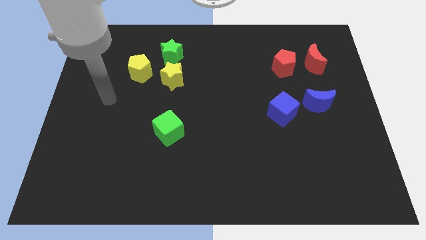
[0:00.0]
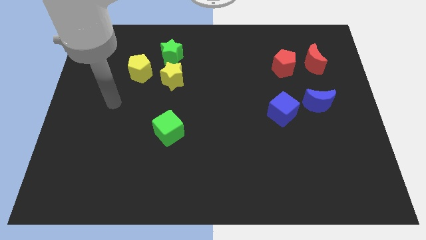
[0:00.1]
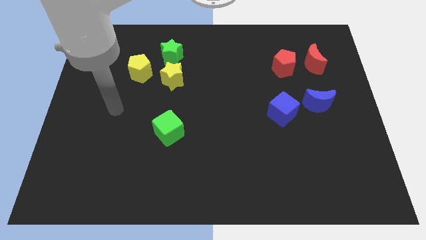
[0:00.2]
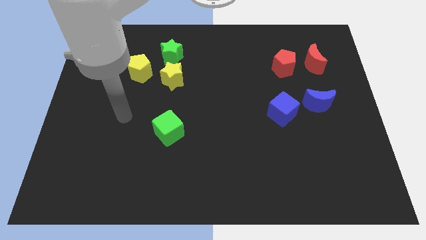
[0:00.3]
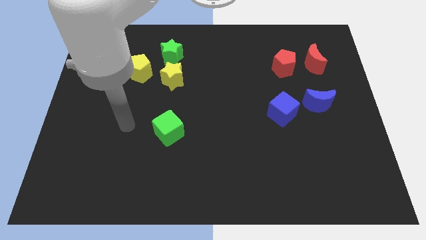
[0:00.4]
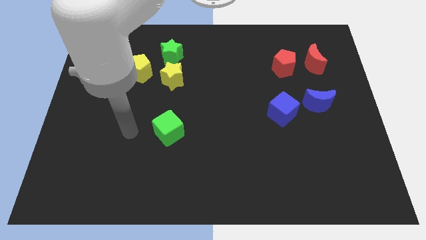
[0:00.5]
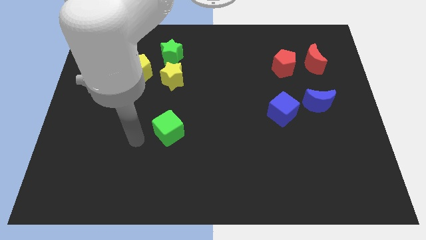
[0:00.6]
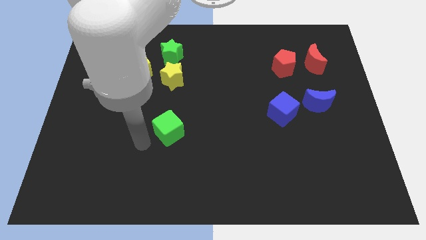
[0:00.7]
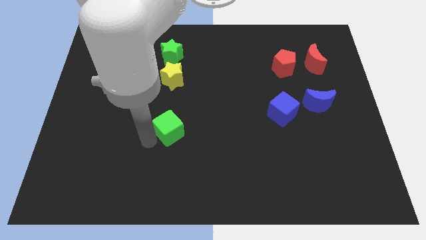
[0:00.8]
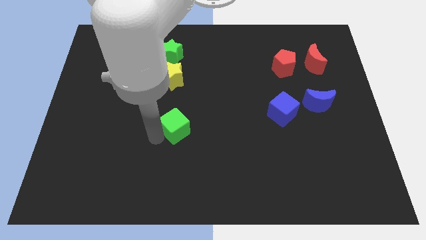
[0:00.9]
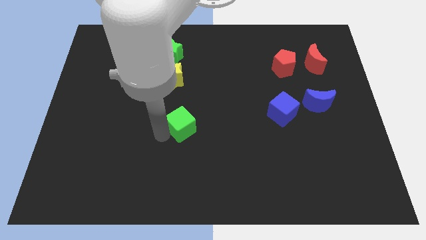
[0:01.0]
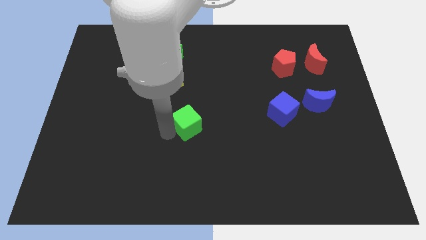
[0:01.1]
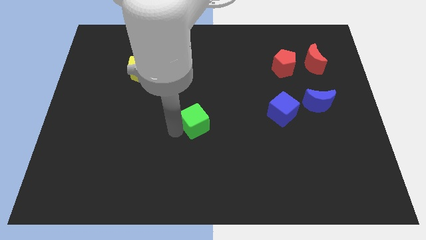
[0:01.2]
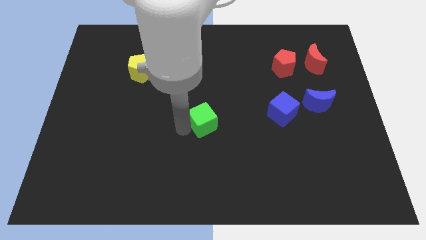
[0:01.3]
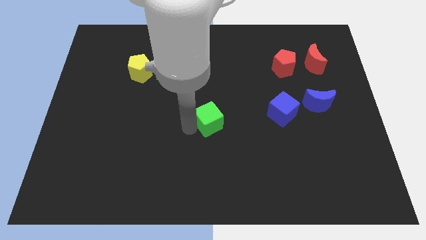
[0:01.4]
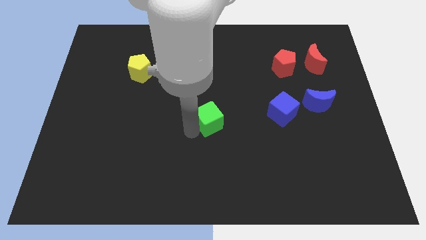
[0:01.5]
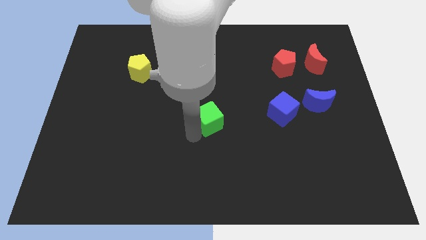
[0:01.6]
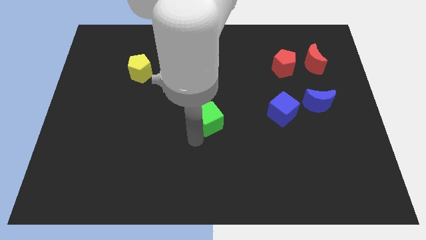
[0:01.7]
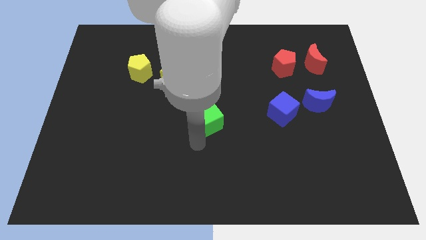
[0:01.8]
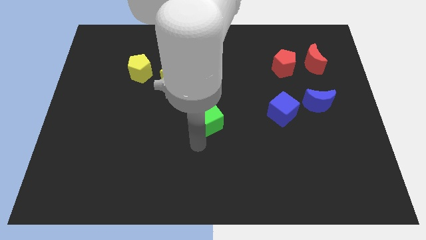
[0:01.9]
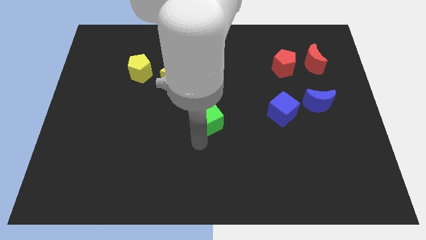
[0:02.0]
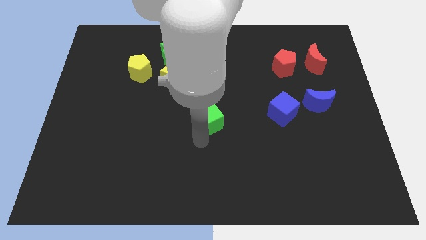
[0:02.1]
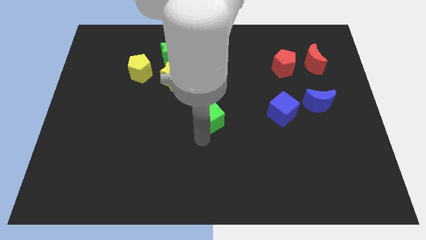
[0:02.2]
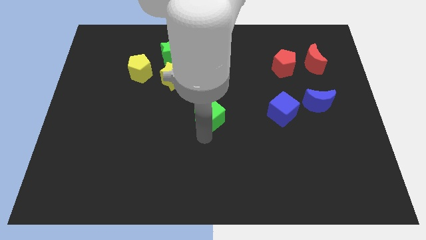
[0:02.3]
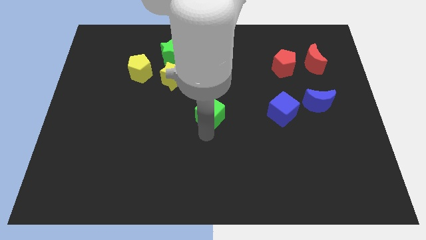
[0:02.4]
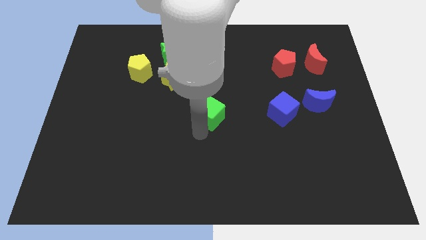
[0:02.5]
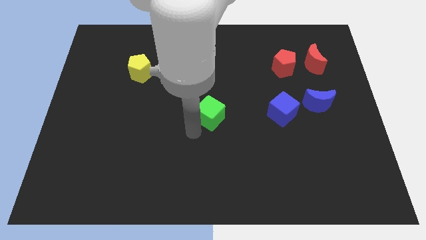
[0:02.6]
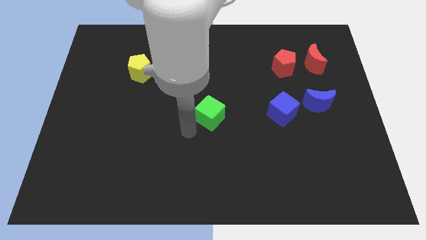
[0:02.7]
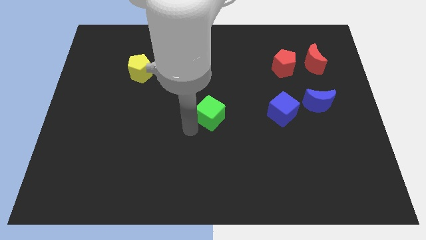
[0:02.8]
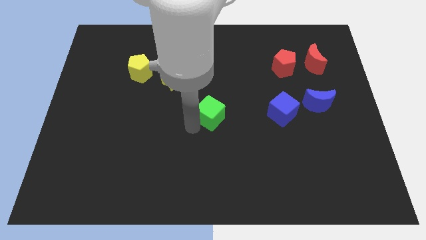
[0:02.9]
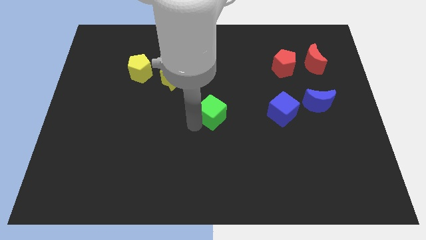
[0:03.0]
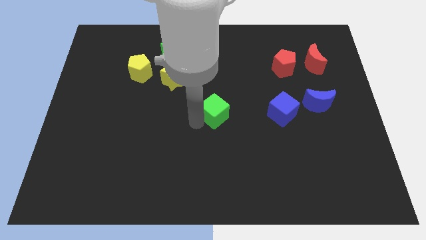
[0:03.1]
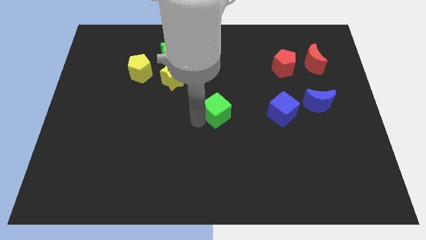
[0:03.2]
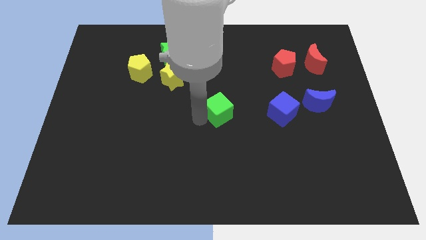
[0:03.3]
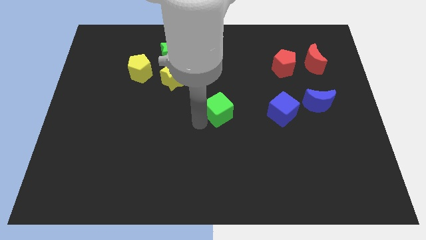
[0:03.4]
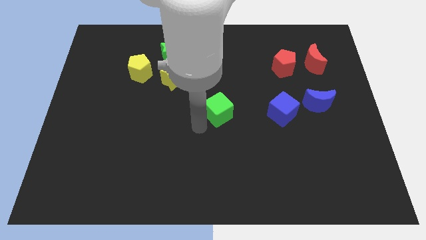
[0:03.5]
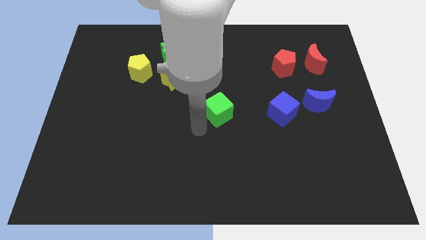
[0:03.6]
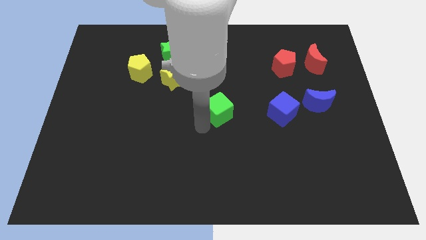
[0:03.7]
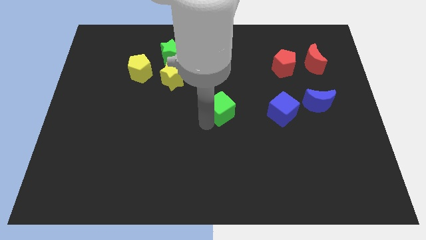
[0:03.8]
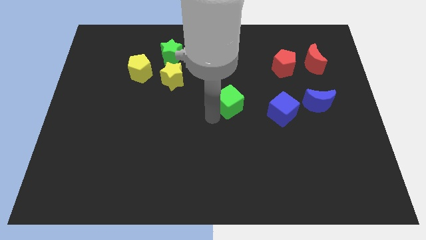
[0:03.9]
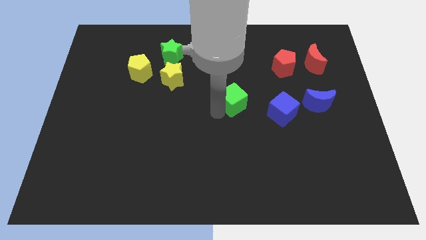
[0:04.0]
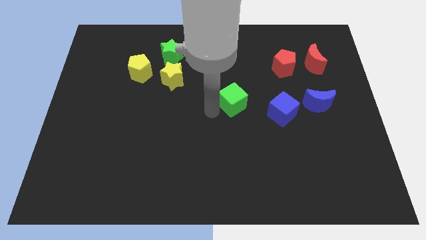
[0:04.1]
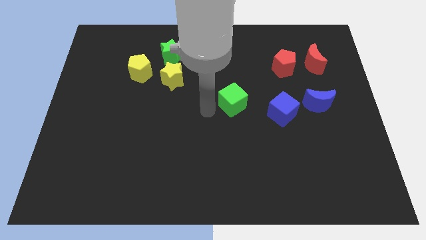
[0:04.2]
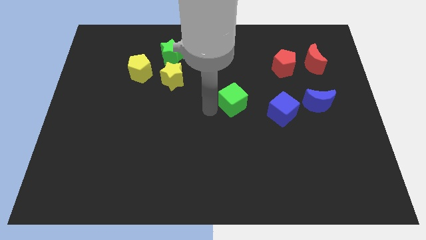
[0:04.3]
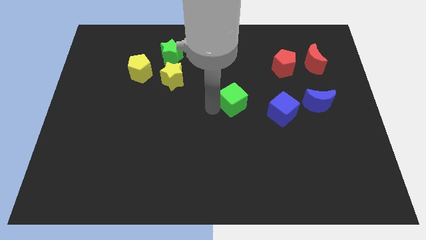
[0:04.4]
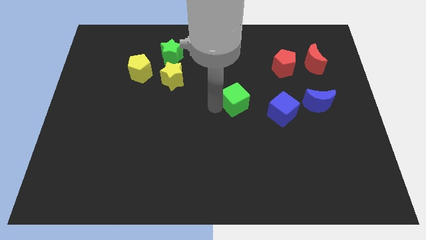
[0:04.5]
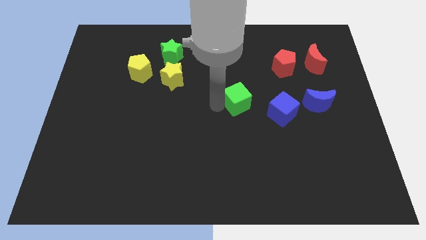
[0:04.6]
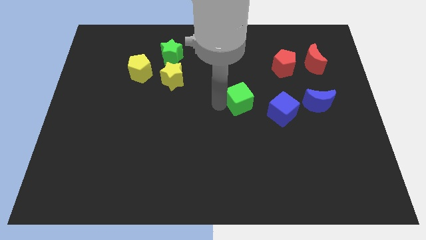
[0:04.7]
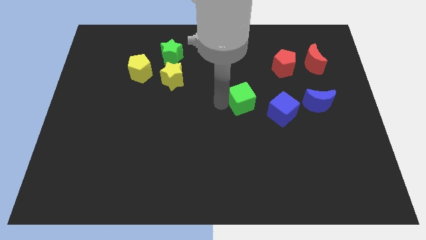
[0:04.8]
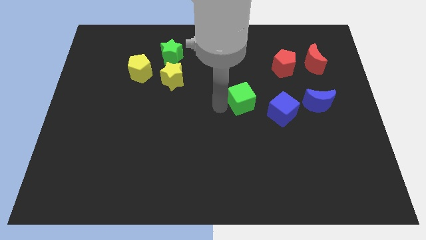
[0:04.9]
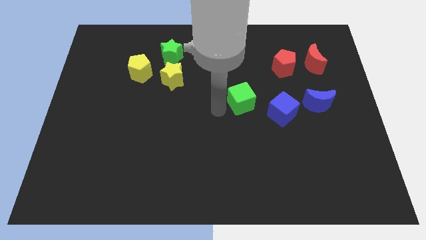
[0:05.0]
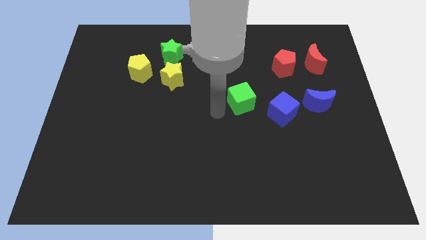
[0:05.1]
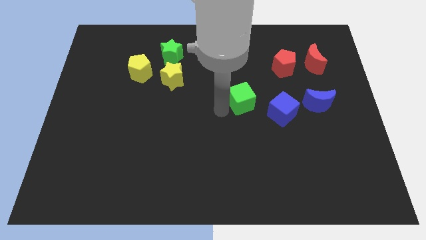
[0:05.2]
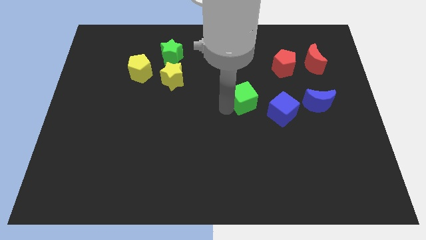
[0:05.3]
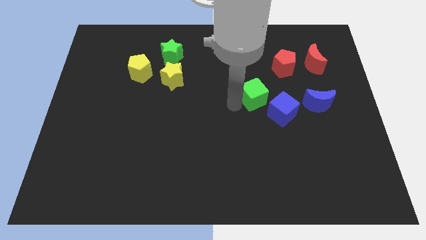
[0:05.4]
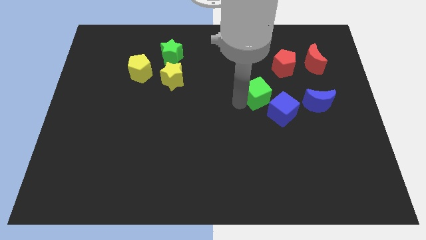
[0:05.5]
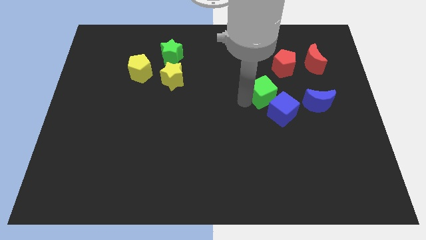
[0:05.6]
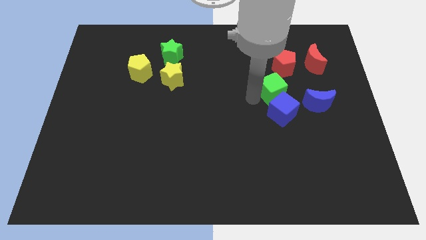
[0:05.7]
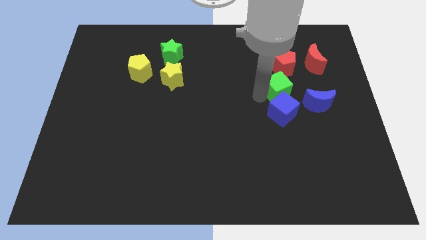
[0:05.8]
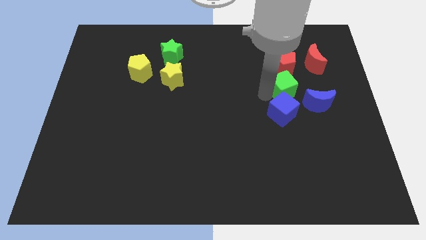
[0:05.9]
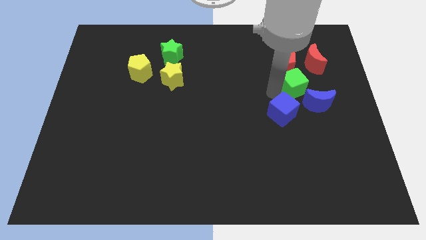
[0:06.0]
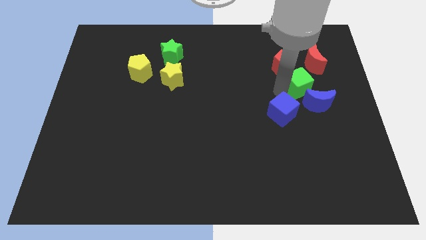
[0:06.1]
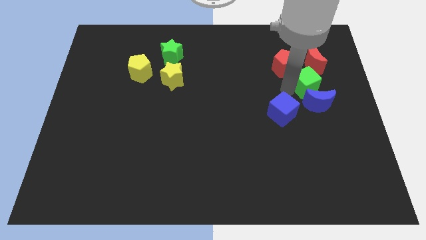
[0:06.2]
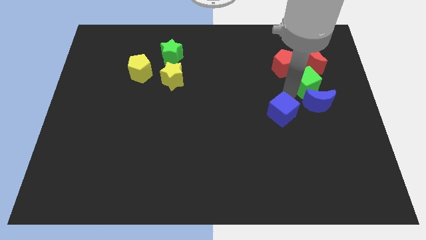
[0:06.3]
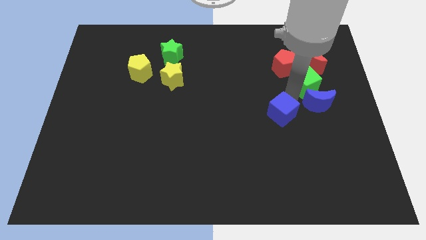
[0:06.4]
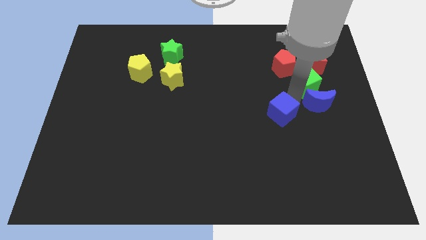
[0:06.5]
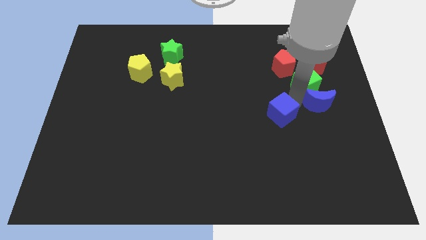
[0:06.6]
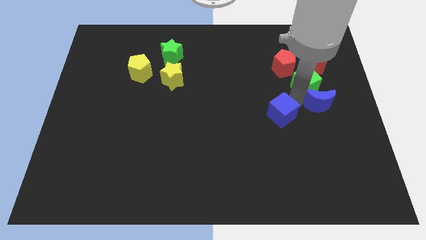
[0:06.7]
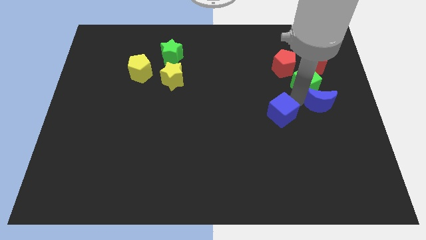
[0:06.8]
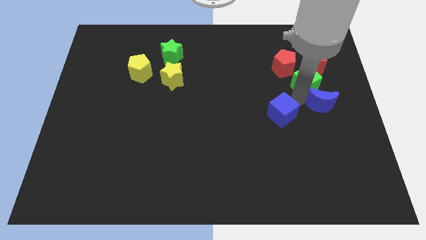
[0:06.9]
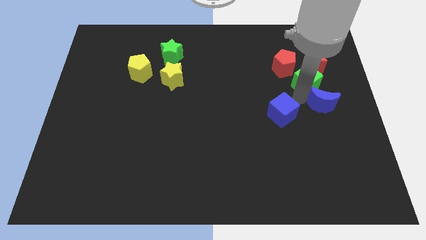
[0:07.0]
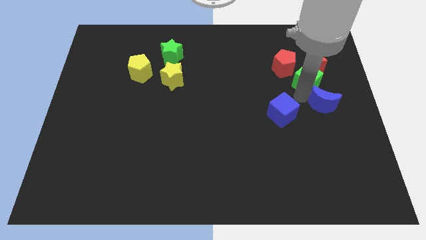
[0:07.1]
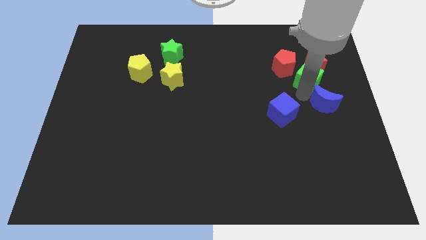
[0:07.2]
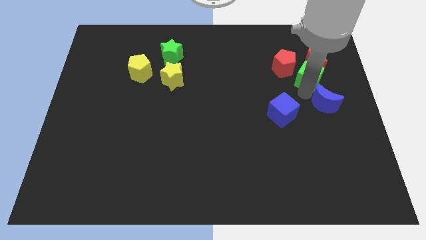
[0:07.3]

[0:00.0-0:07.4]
push the green cube next to the red moon
